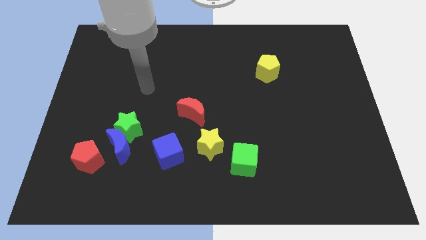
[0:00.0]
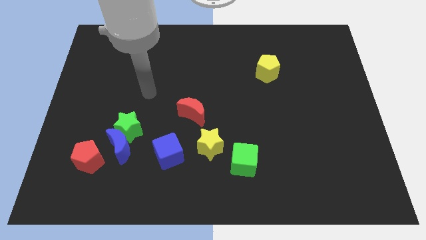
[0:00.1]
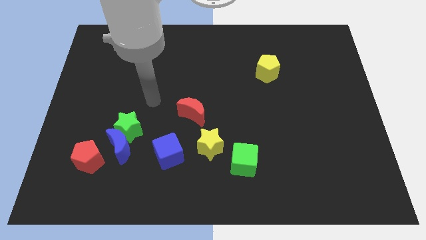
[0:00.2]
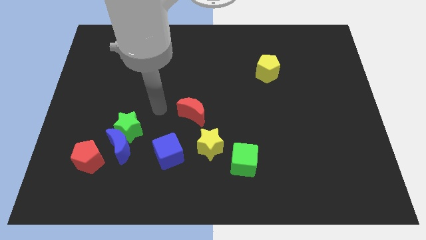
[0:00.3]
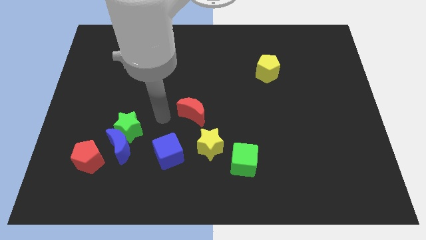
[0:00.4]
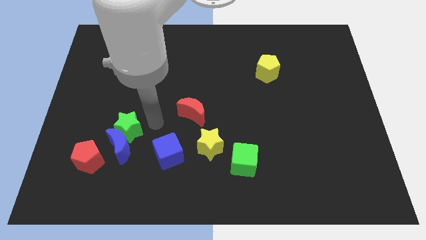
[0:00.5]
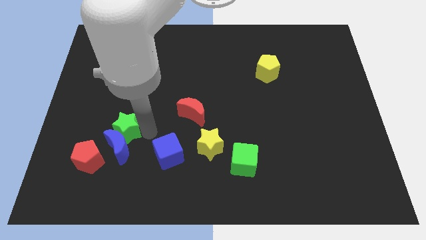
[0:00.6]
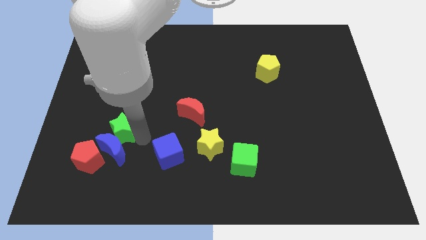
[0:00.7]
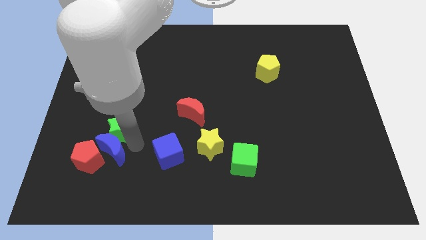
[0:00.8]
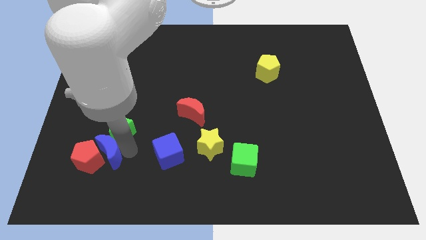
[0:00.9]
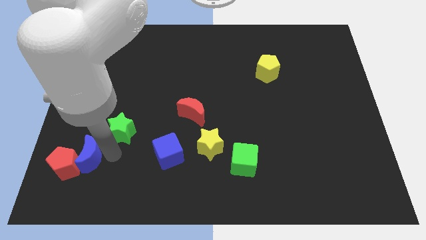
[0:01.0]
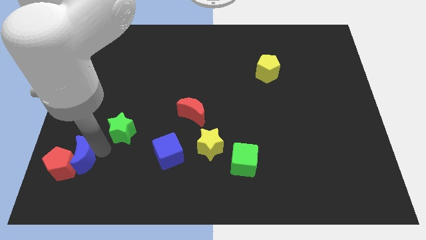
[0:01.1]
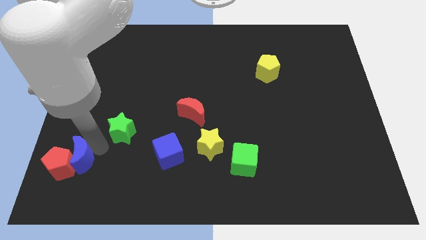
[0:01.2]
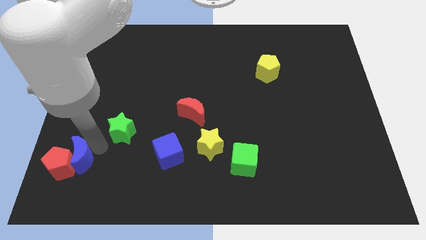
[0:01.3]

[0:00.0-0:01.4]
pull the green star apart from the blue moon

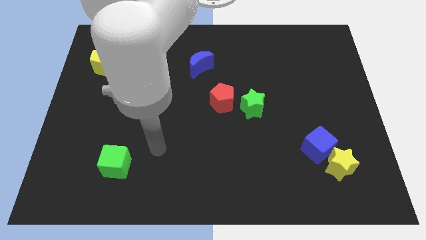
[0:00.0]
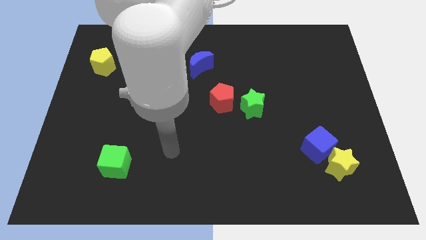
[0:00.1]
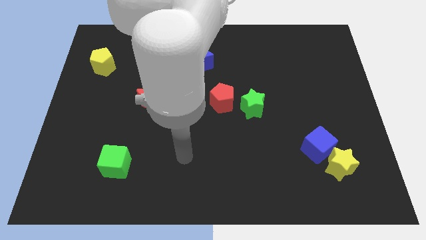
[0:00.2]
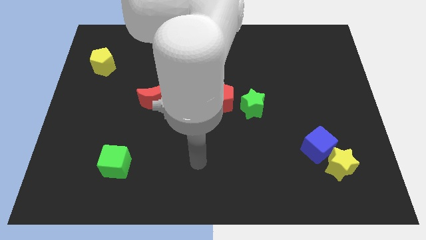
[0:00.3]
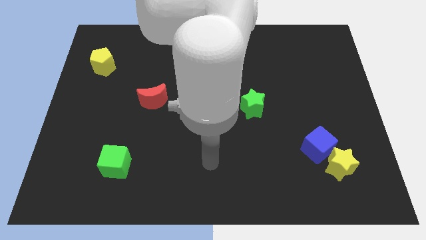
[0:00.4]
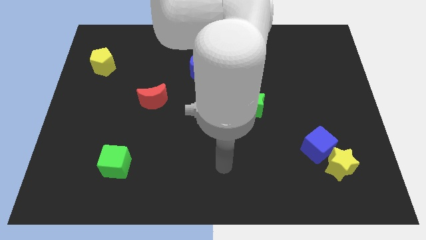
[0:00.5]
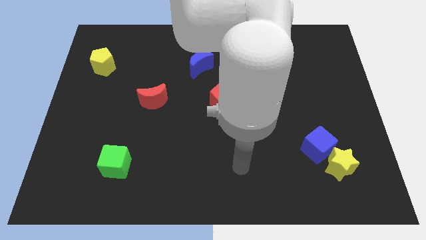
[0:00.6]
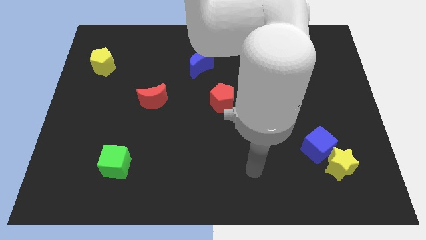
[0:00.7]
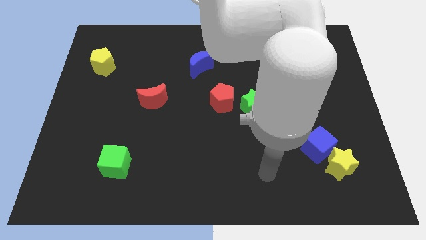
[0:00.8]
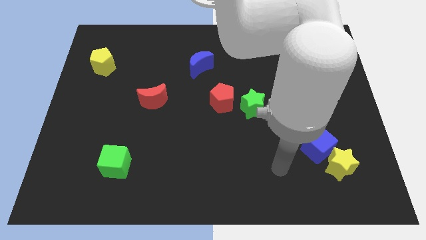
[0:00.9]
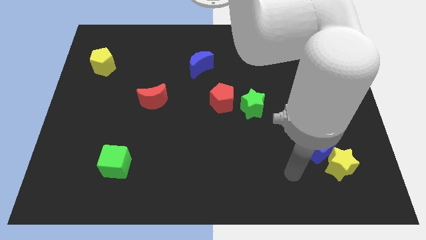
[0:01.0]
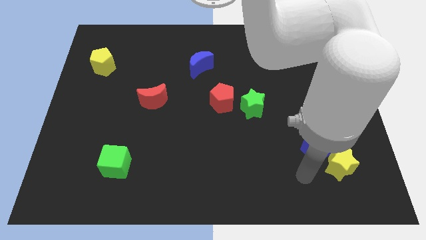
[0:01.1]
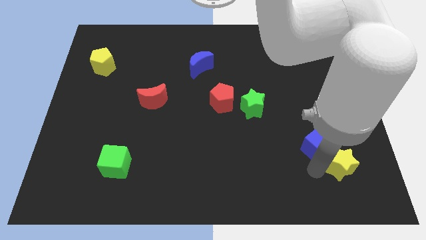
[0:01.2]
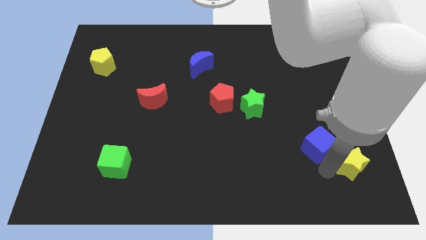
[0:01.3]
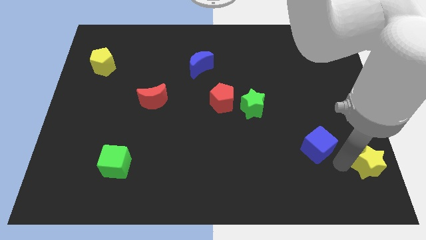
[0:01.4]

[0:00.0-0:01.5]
pull the blue cube apart from the yellow star

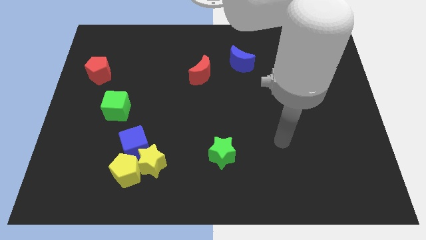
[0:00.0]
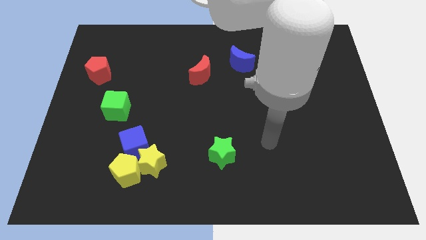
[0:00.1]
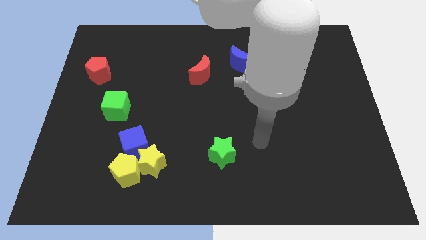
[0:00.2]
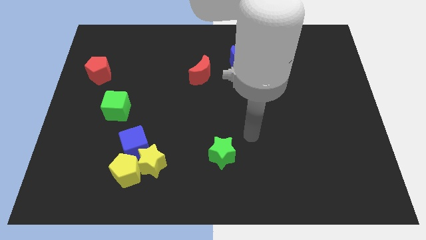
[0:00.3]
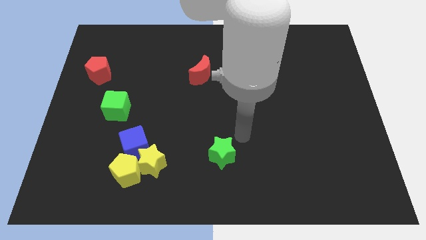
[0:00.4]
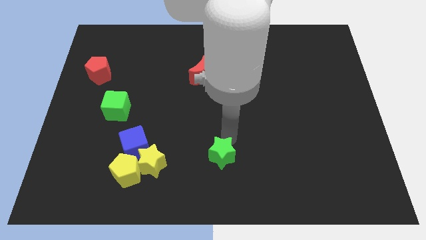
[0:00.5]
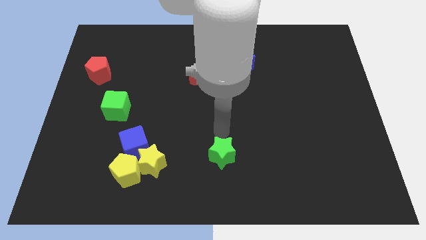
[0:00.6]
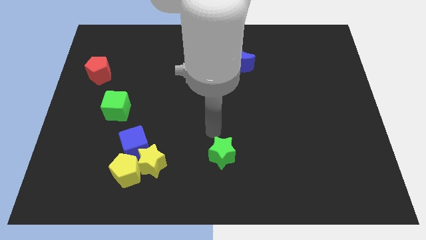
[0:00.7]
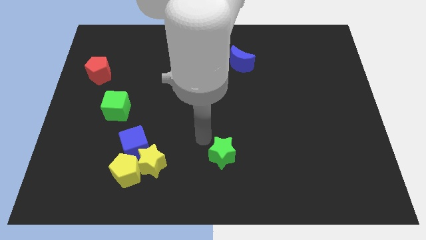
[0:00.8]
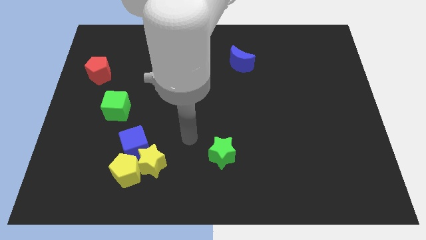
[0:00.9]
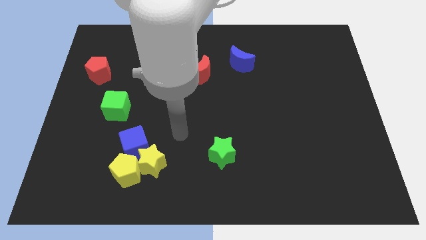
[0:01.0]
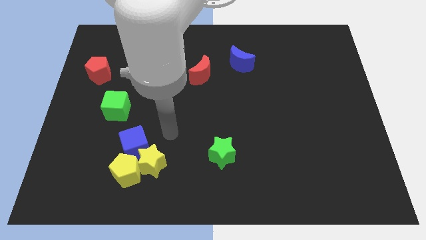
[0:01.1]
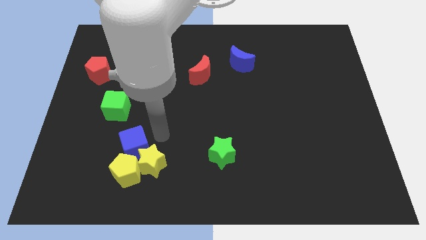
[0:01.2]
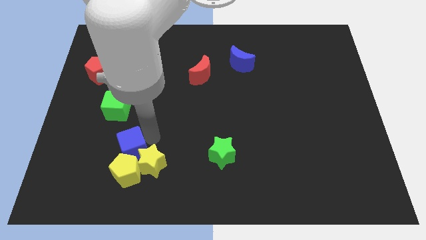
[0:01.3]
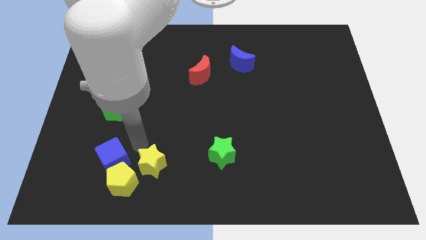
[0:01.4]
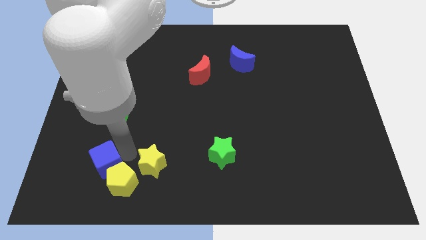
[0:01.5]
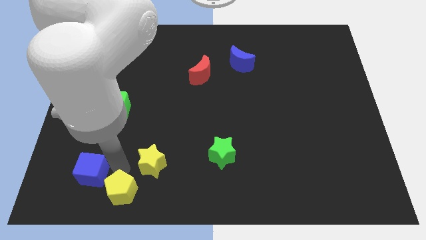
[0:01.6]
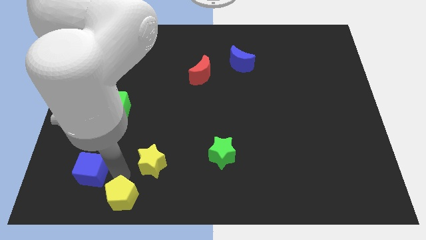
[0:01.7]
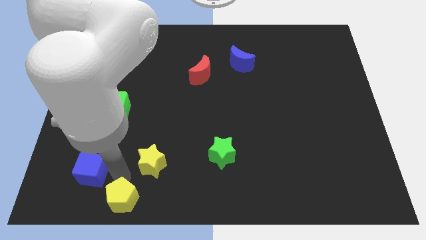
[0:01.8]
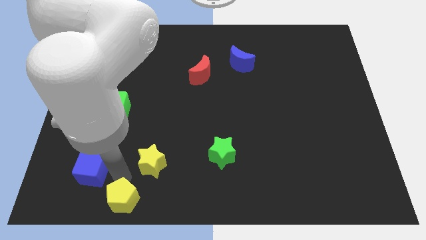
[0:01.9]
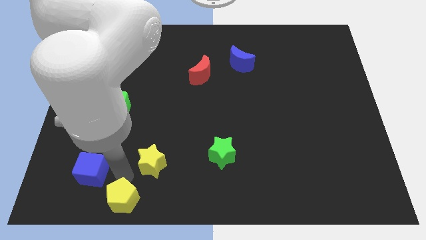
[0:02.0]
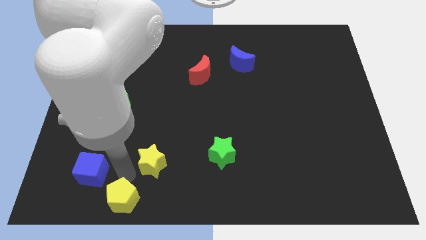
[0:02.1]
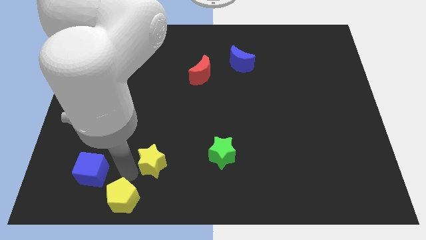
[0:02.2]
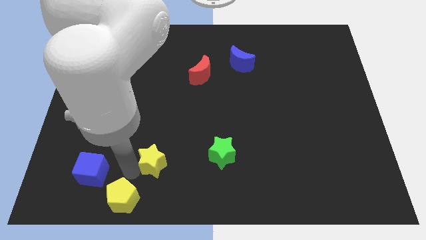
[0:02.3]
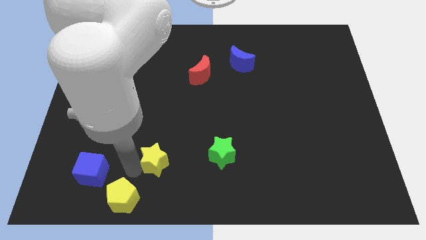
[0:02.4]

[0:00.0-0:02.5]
move the yellow star away from the yellow pentagon and blue cube

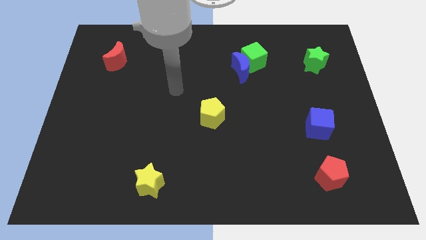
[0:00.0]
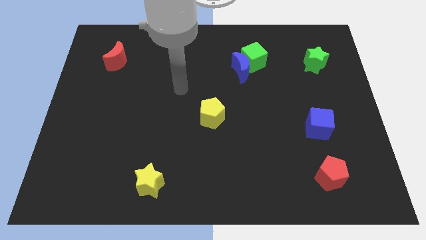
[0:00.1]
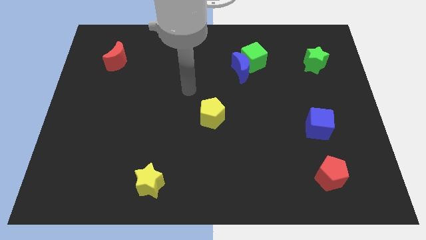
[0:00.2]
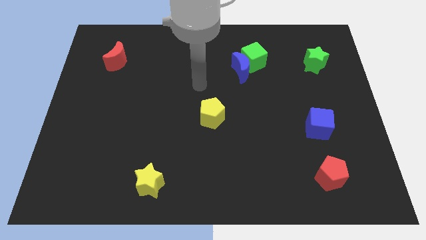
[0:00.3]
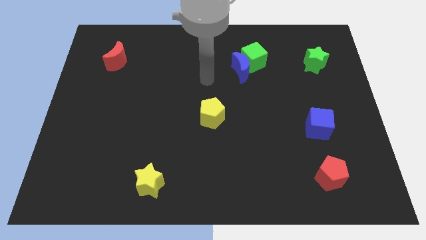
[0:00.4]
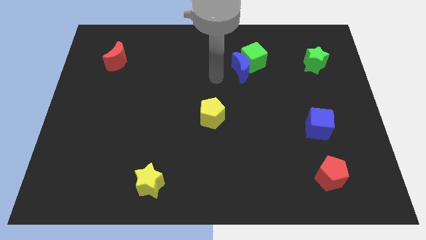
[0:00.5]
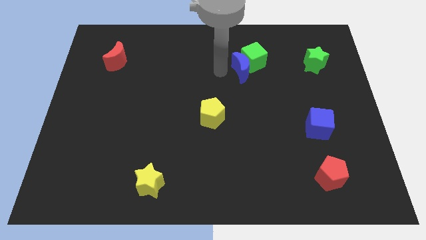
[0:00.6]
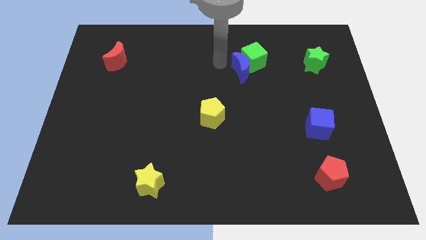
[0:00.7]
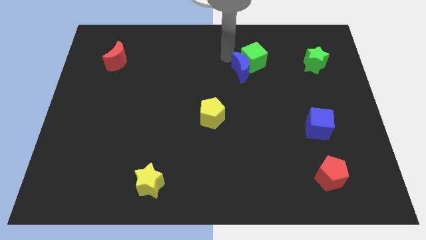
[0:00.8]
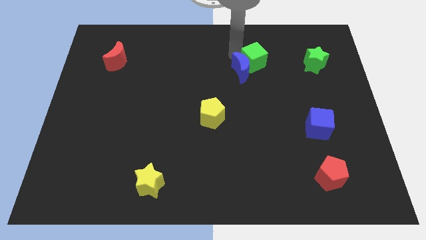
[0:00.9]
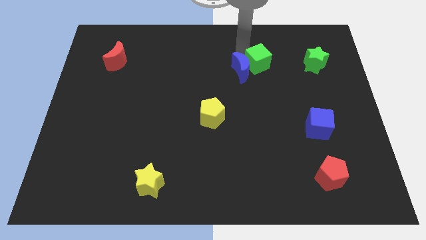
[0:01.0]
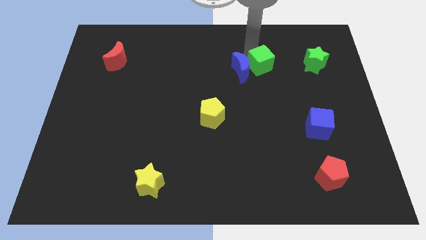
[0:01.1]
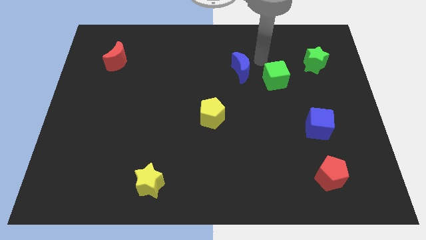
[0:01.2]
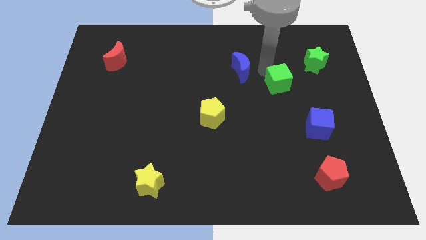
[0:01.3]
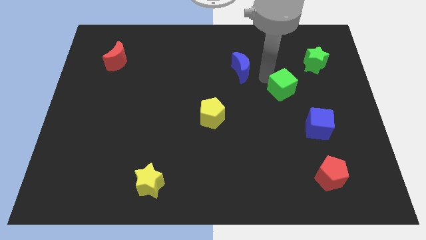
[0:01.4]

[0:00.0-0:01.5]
move the blue moon away from the green cube

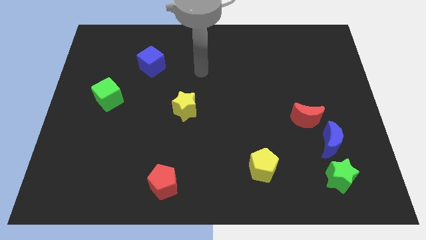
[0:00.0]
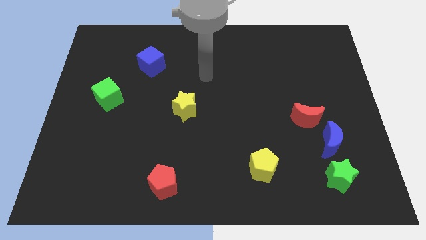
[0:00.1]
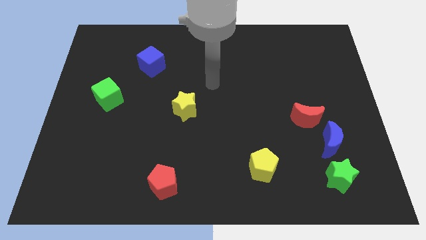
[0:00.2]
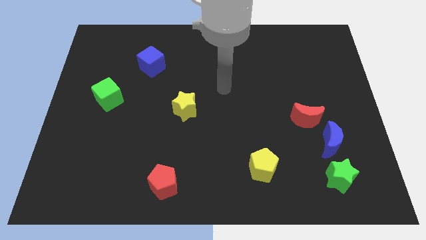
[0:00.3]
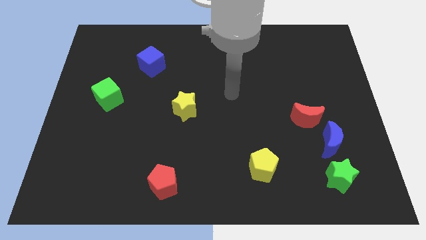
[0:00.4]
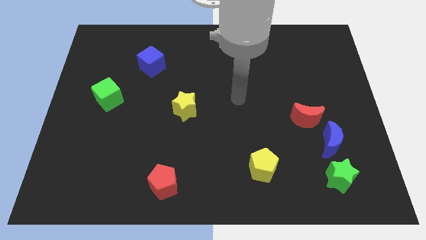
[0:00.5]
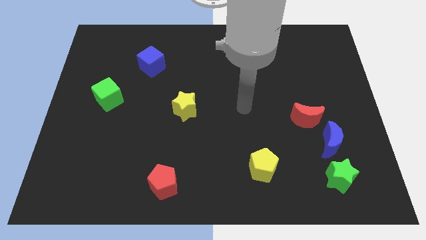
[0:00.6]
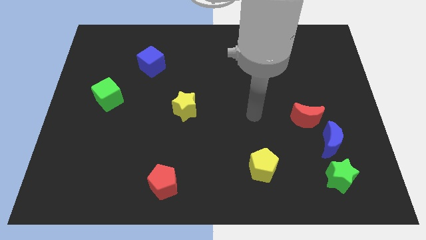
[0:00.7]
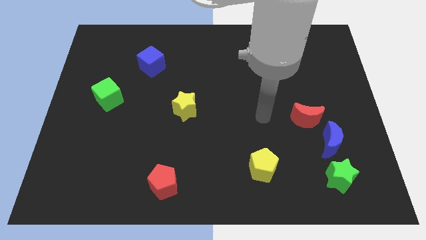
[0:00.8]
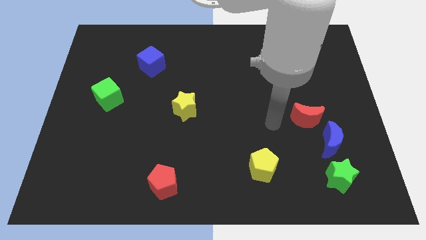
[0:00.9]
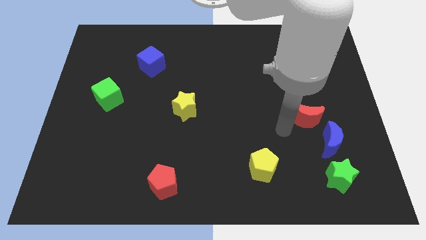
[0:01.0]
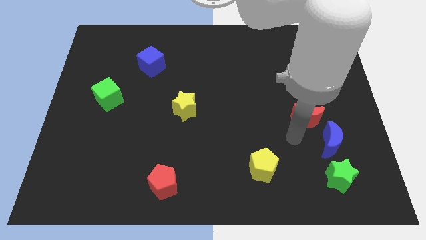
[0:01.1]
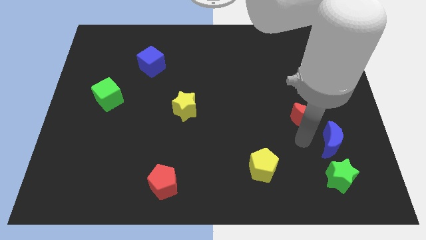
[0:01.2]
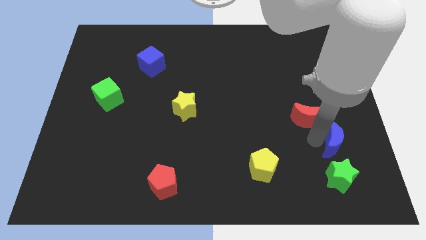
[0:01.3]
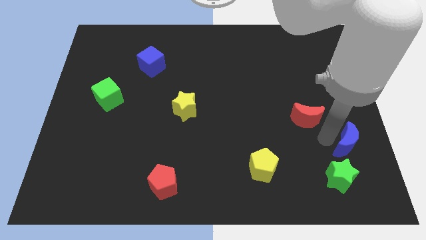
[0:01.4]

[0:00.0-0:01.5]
move the red moon away from the blue moon

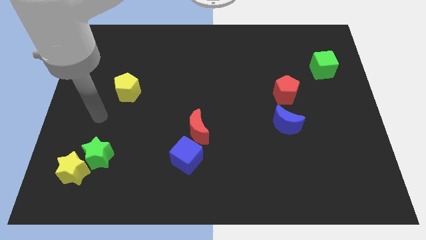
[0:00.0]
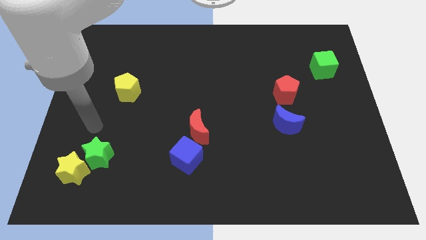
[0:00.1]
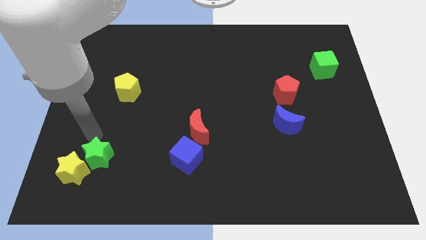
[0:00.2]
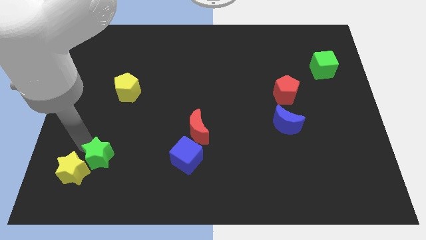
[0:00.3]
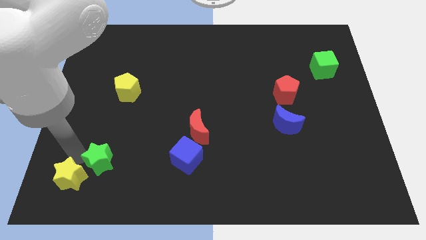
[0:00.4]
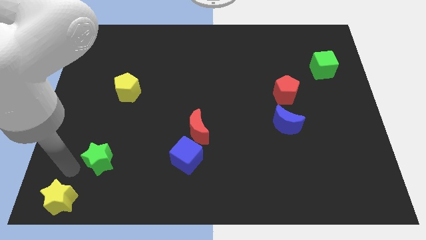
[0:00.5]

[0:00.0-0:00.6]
pull the green star apart from the yellow star

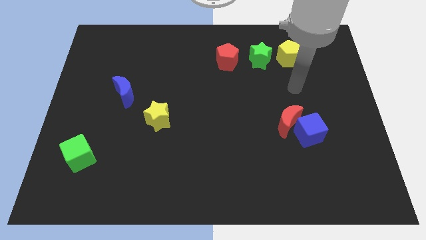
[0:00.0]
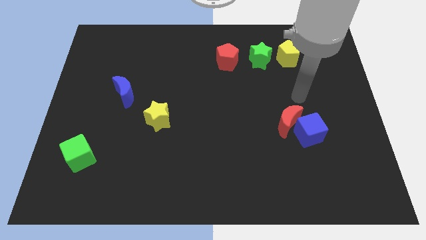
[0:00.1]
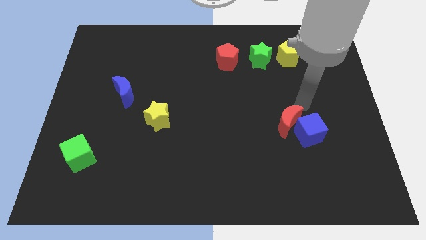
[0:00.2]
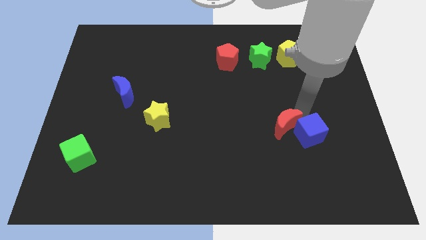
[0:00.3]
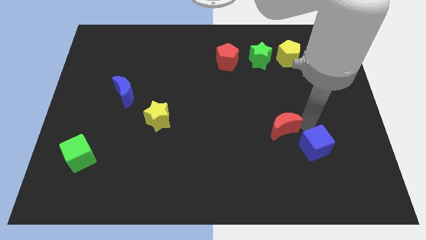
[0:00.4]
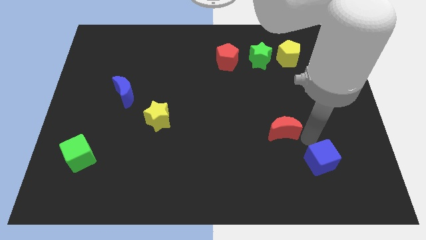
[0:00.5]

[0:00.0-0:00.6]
move the red moon away from the blue cube
